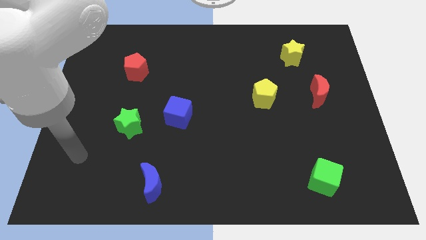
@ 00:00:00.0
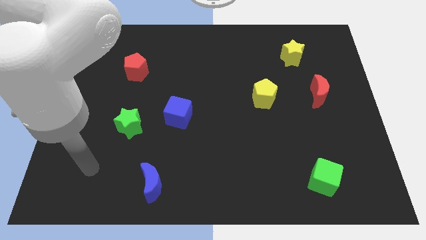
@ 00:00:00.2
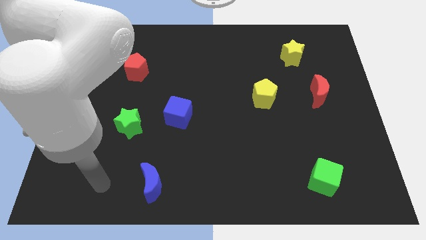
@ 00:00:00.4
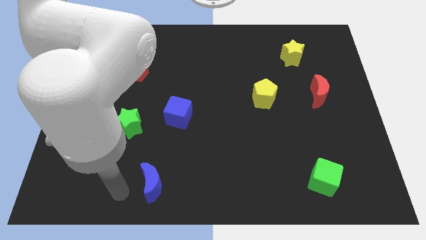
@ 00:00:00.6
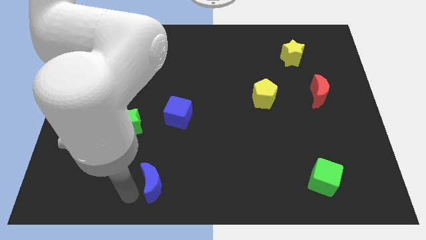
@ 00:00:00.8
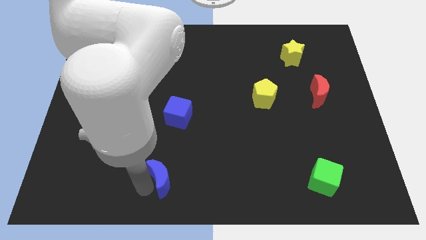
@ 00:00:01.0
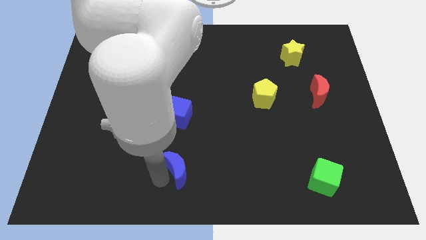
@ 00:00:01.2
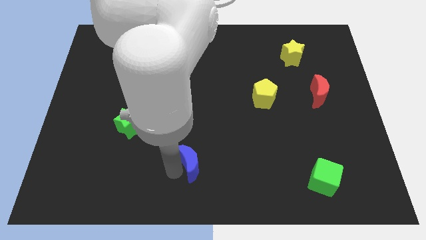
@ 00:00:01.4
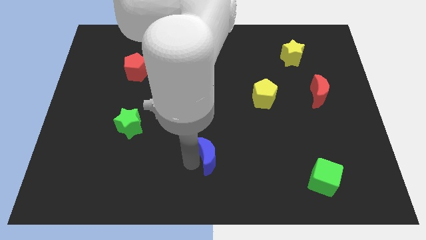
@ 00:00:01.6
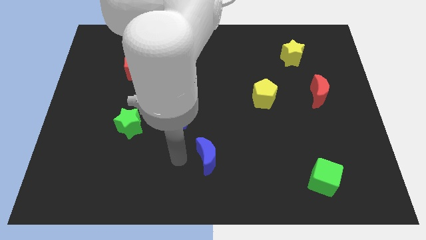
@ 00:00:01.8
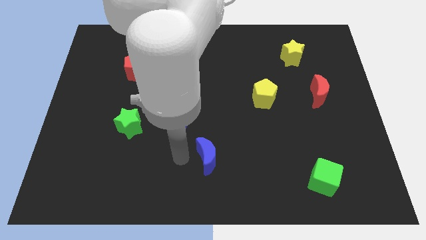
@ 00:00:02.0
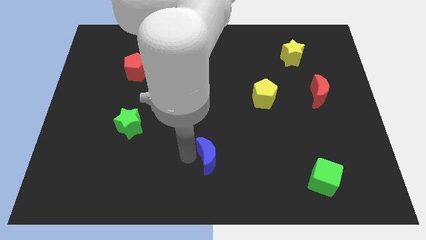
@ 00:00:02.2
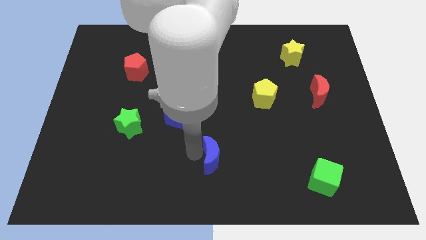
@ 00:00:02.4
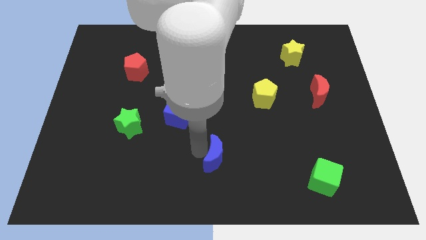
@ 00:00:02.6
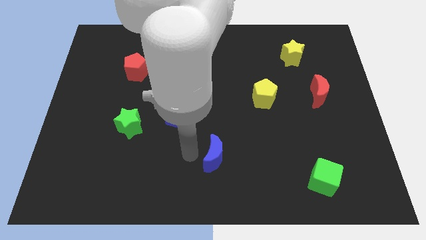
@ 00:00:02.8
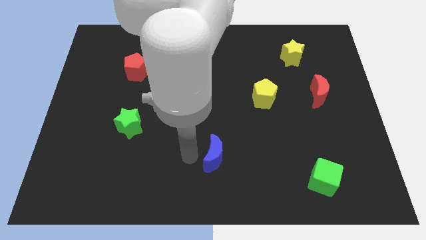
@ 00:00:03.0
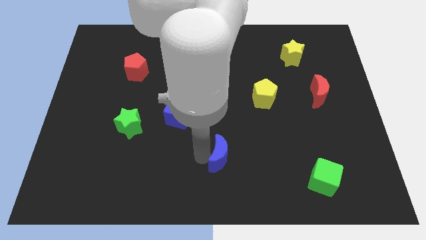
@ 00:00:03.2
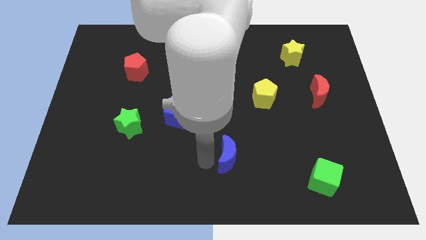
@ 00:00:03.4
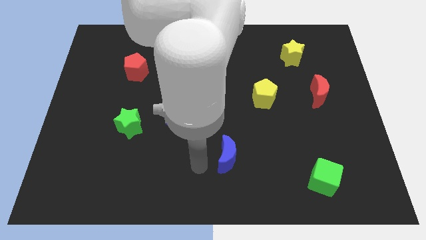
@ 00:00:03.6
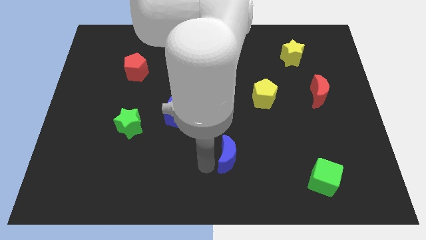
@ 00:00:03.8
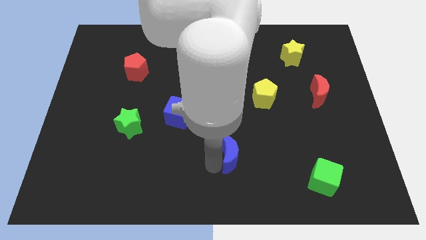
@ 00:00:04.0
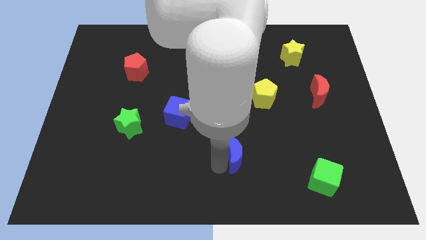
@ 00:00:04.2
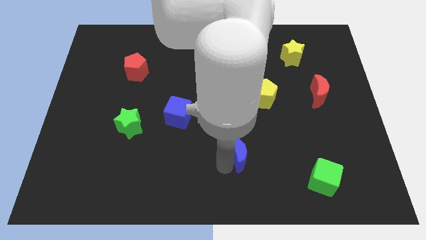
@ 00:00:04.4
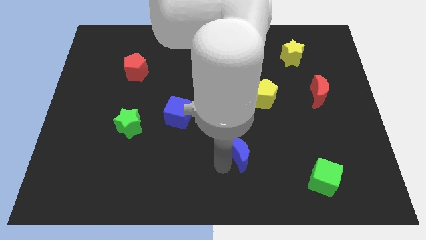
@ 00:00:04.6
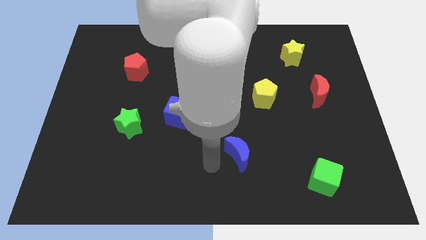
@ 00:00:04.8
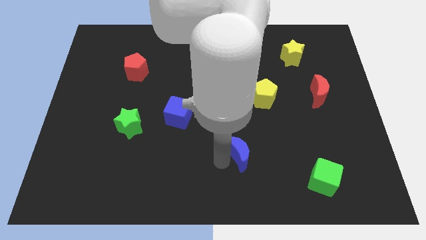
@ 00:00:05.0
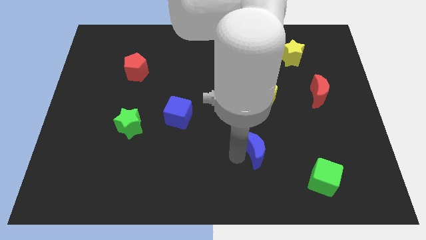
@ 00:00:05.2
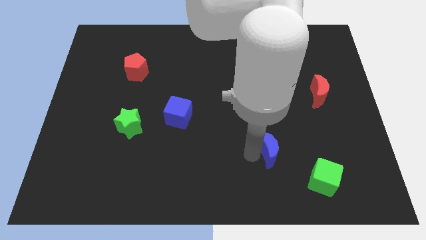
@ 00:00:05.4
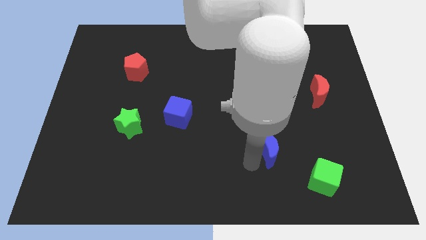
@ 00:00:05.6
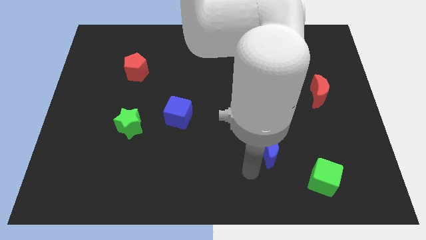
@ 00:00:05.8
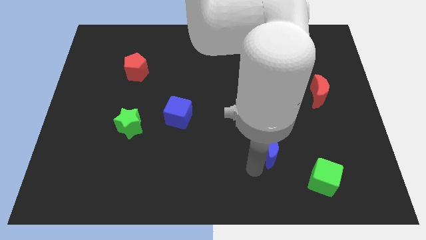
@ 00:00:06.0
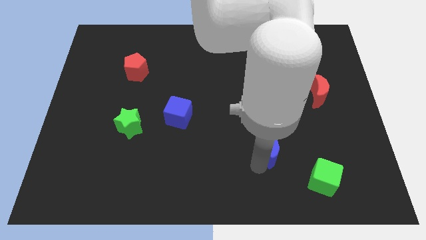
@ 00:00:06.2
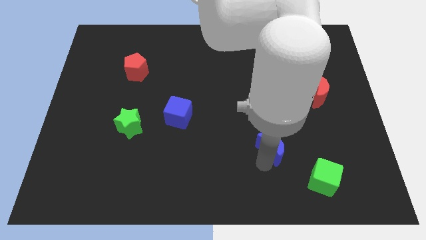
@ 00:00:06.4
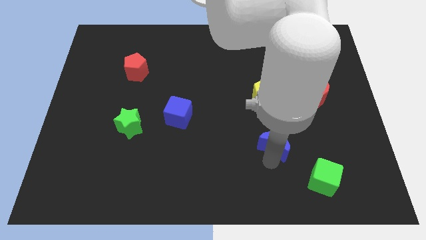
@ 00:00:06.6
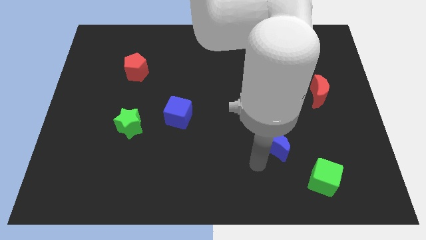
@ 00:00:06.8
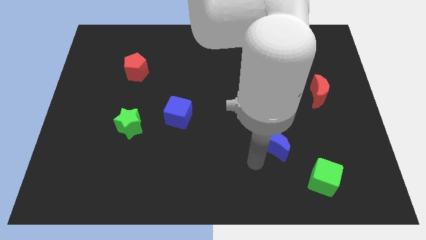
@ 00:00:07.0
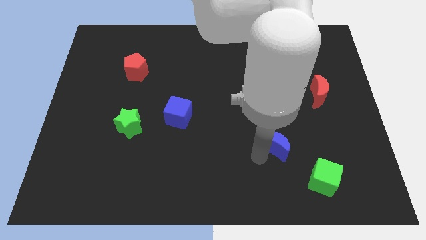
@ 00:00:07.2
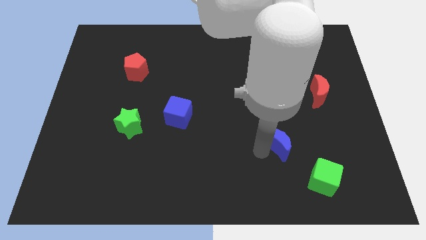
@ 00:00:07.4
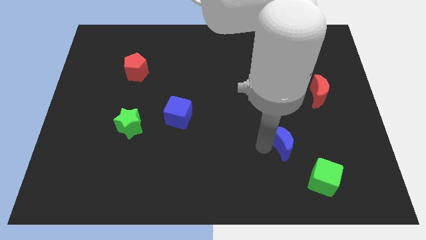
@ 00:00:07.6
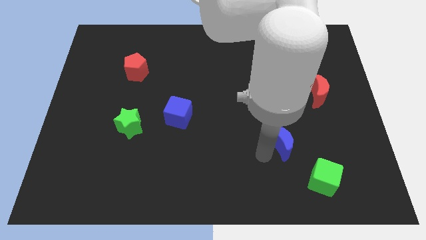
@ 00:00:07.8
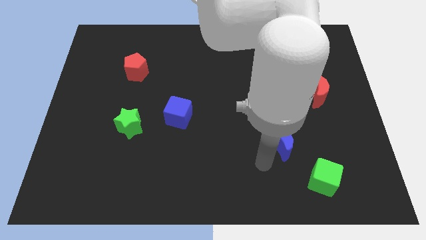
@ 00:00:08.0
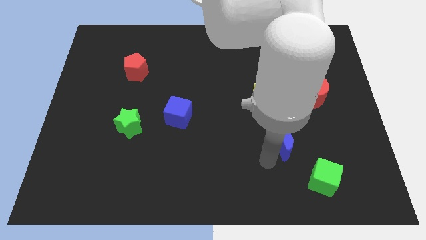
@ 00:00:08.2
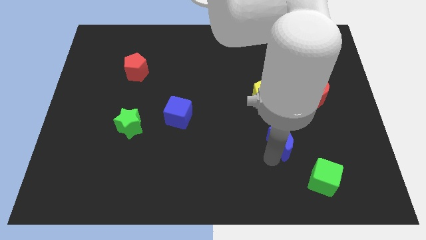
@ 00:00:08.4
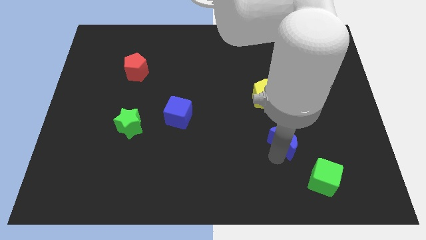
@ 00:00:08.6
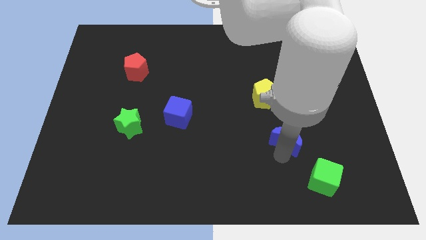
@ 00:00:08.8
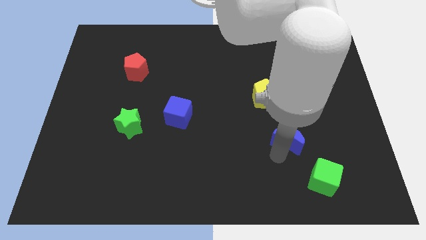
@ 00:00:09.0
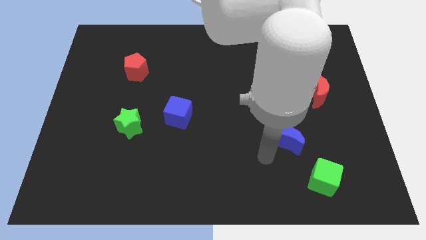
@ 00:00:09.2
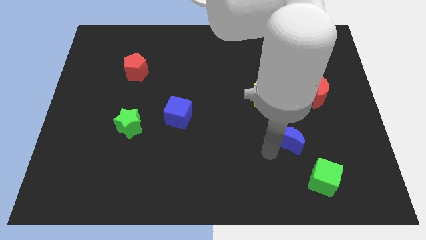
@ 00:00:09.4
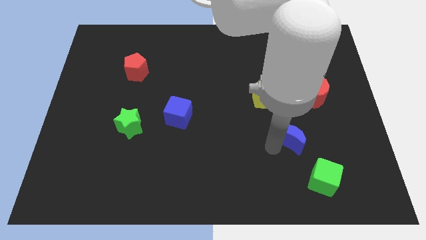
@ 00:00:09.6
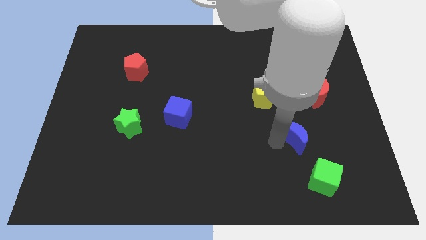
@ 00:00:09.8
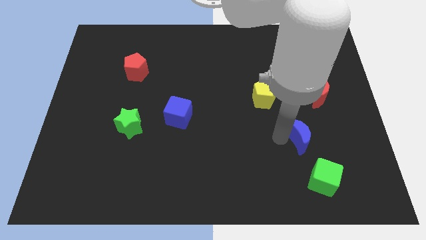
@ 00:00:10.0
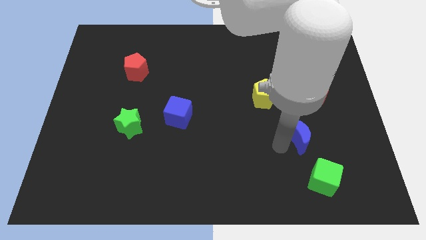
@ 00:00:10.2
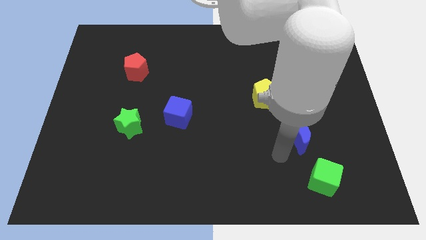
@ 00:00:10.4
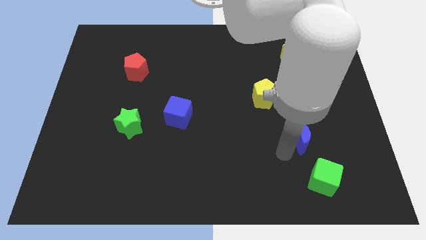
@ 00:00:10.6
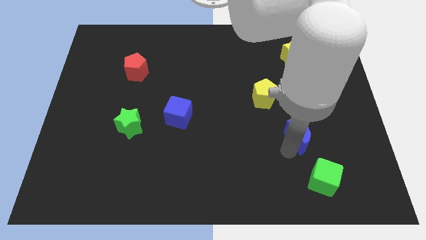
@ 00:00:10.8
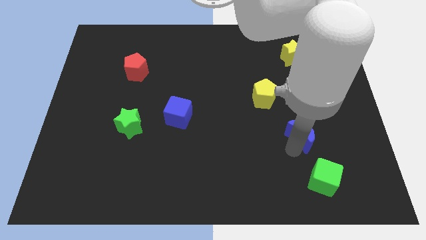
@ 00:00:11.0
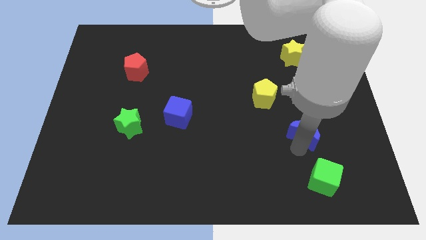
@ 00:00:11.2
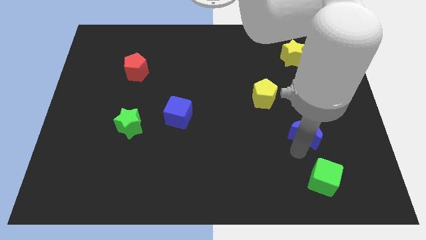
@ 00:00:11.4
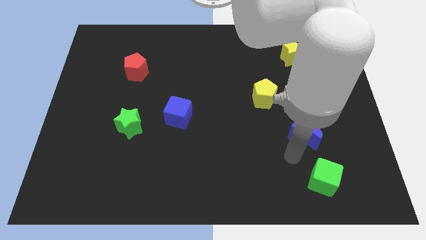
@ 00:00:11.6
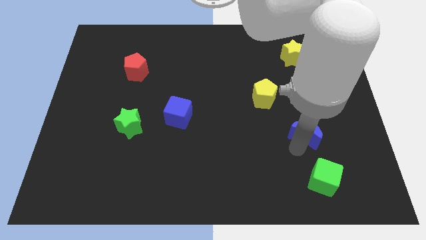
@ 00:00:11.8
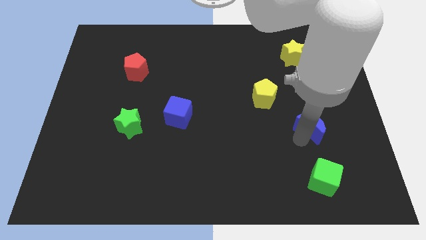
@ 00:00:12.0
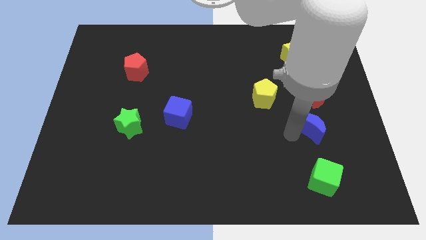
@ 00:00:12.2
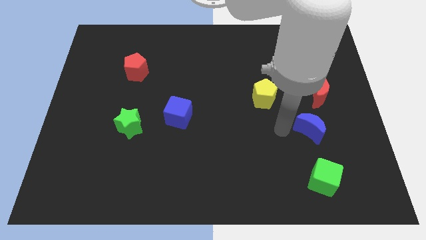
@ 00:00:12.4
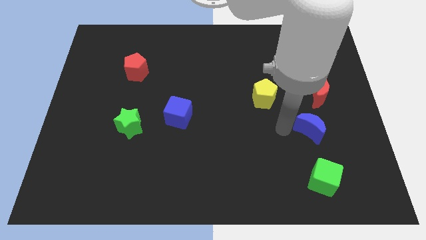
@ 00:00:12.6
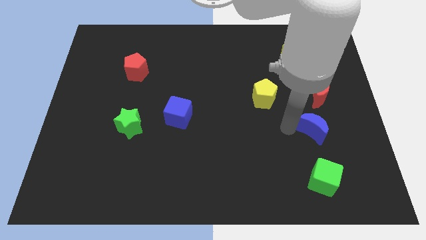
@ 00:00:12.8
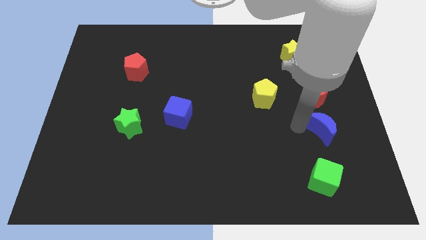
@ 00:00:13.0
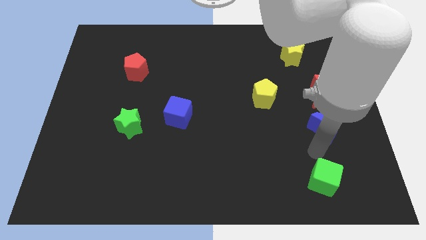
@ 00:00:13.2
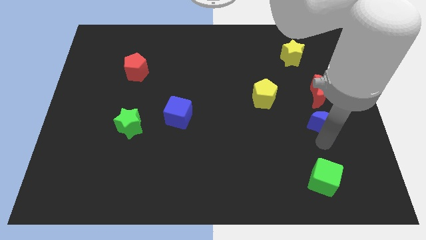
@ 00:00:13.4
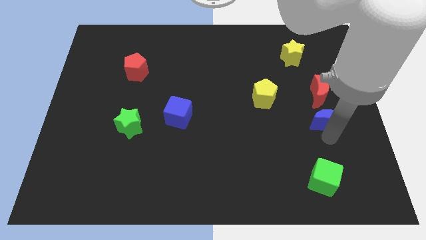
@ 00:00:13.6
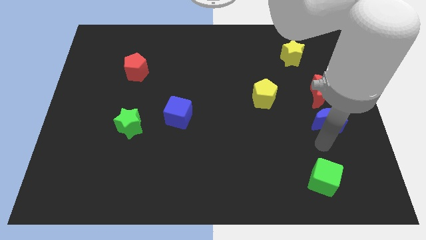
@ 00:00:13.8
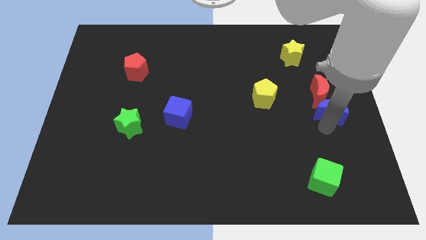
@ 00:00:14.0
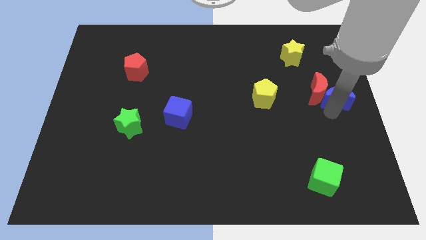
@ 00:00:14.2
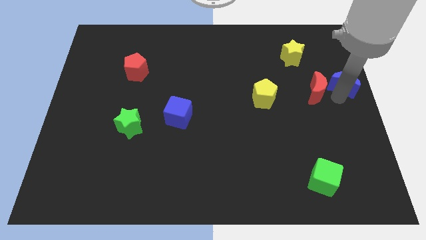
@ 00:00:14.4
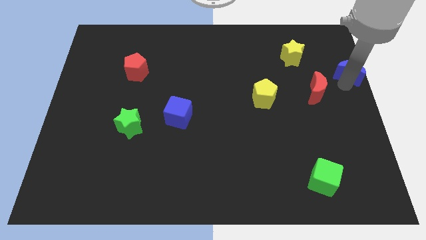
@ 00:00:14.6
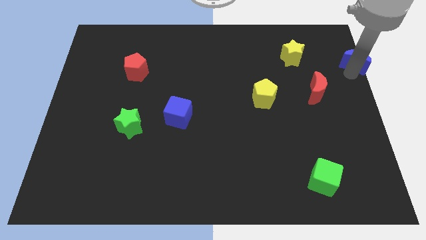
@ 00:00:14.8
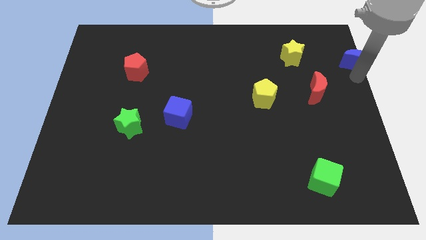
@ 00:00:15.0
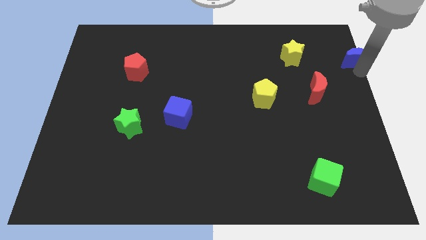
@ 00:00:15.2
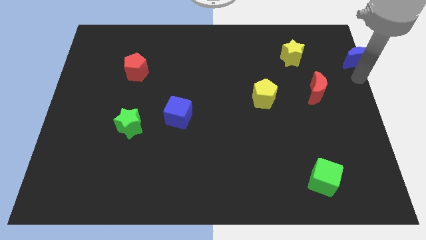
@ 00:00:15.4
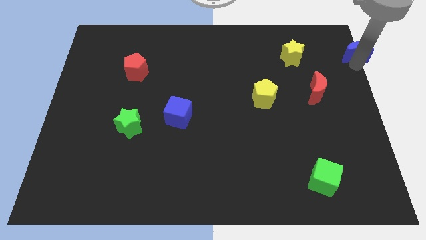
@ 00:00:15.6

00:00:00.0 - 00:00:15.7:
push the blue moon to the top right
